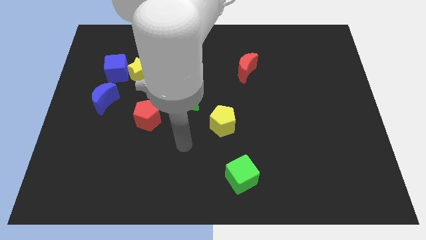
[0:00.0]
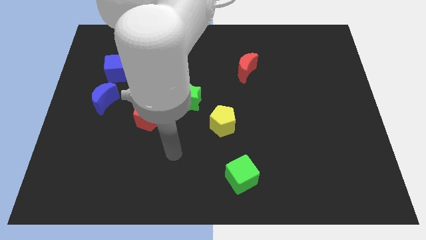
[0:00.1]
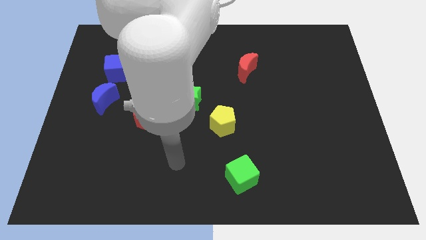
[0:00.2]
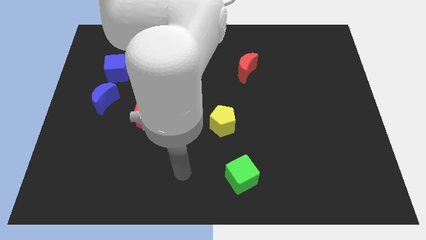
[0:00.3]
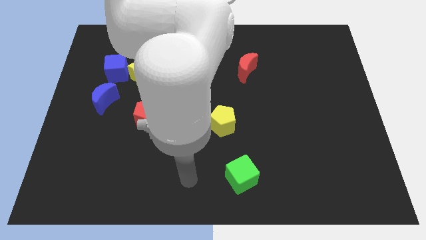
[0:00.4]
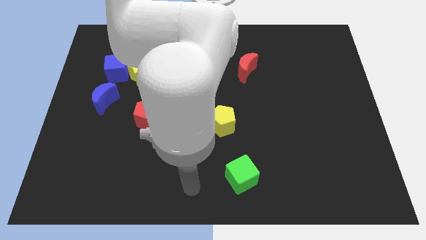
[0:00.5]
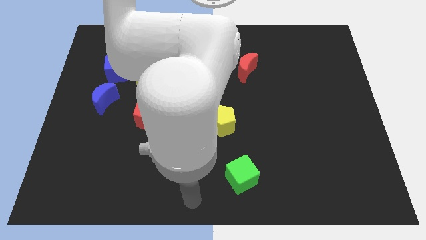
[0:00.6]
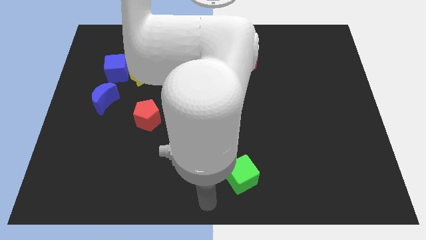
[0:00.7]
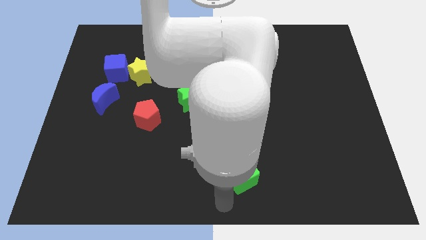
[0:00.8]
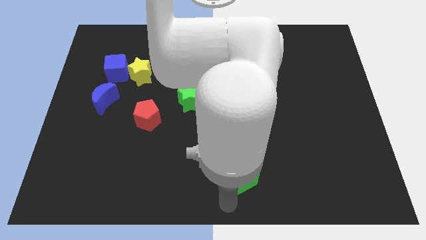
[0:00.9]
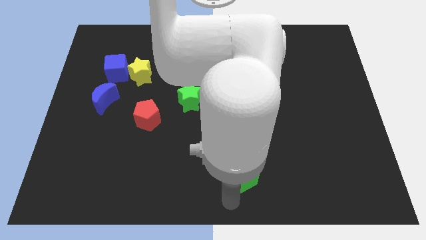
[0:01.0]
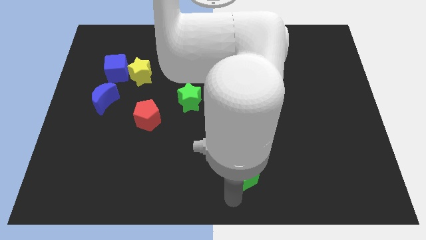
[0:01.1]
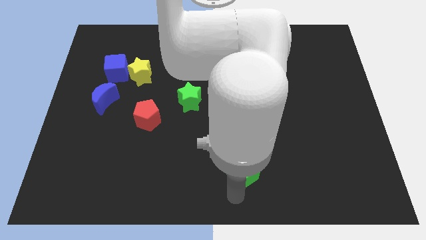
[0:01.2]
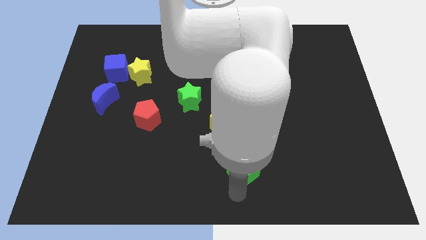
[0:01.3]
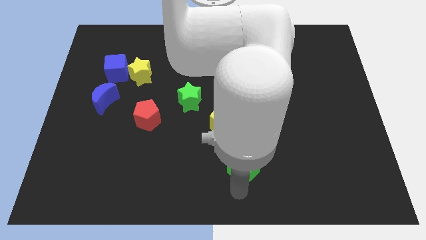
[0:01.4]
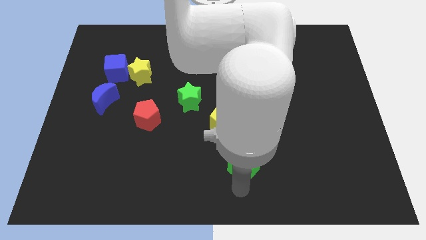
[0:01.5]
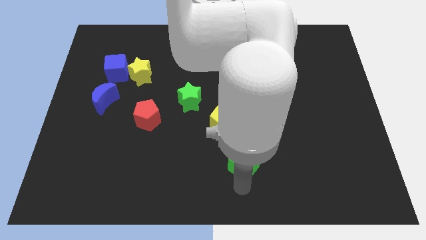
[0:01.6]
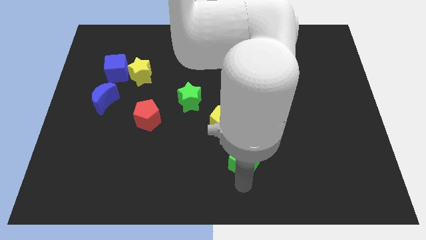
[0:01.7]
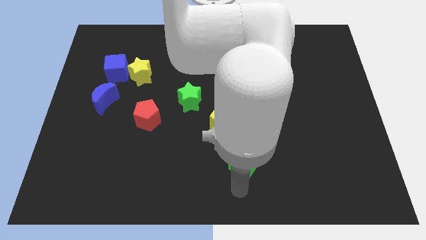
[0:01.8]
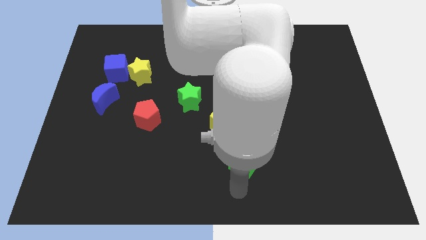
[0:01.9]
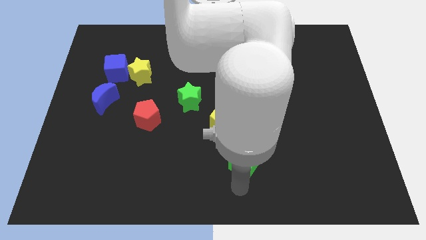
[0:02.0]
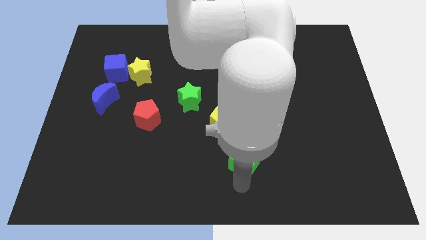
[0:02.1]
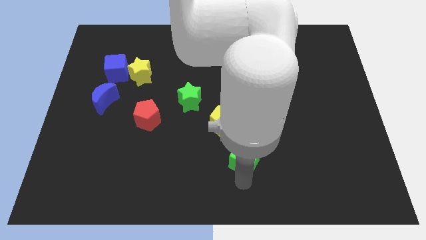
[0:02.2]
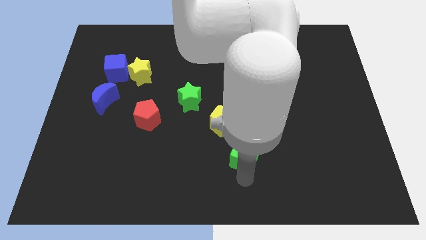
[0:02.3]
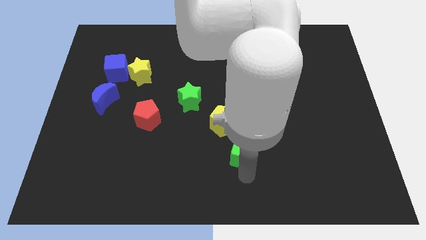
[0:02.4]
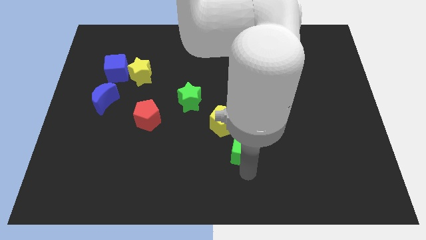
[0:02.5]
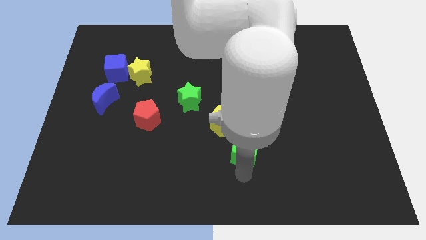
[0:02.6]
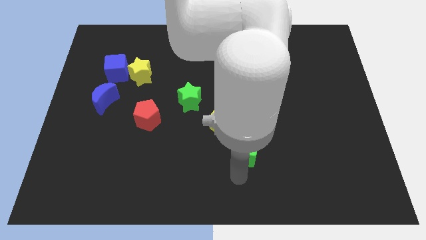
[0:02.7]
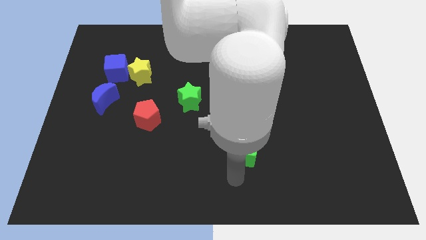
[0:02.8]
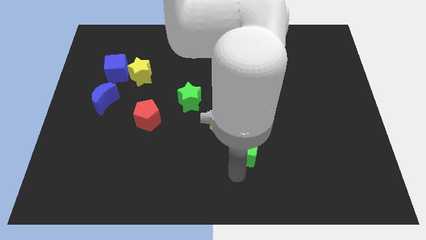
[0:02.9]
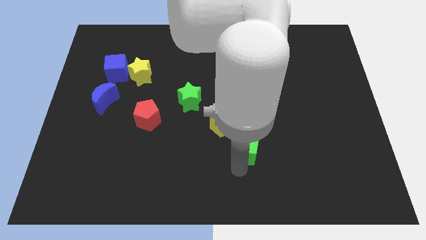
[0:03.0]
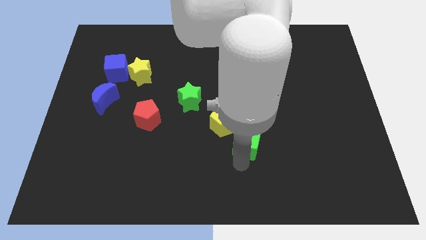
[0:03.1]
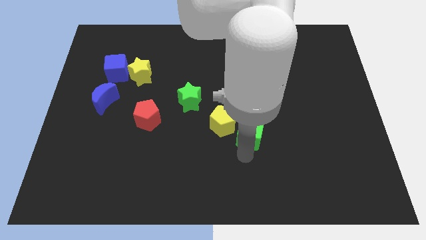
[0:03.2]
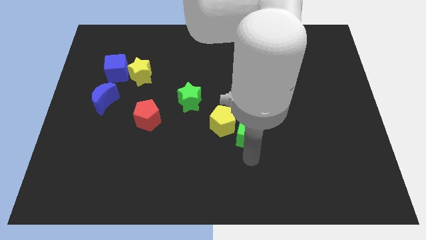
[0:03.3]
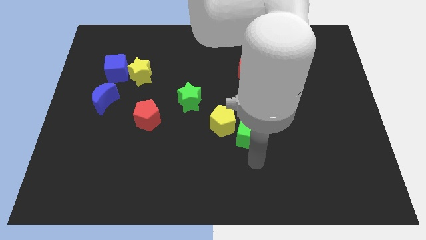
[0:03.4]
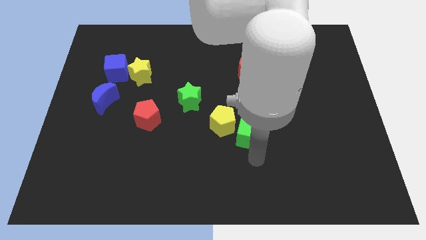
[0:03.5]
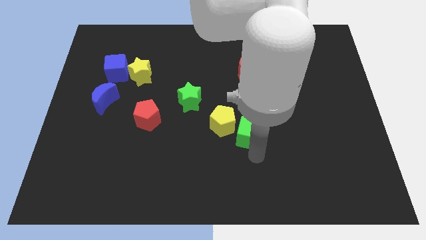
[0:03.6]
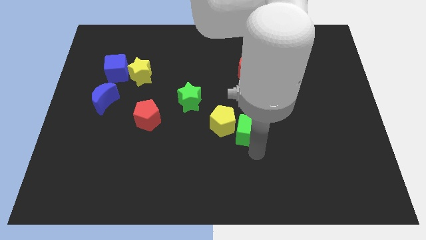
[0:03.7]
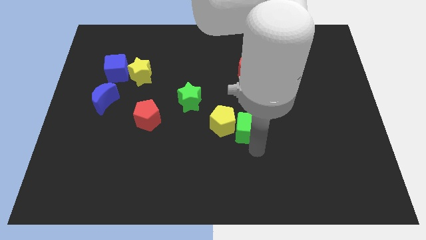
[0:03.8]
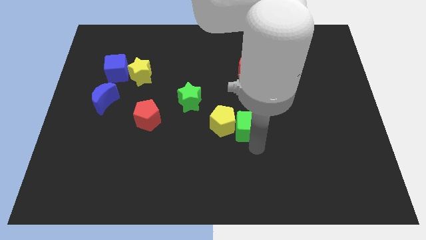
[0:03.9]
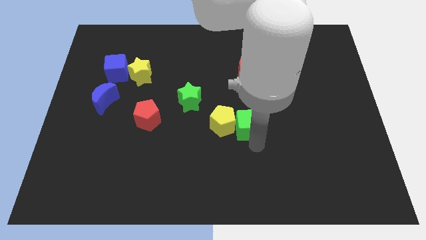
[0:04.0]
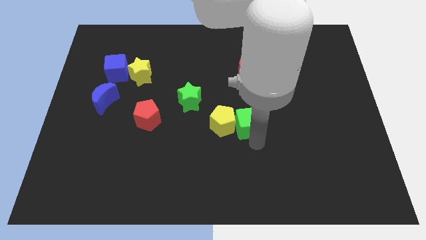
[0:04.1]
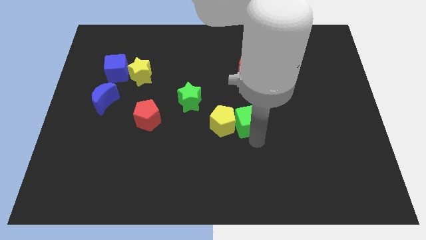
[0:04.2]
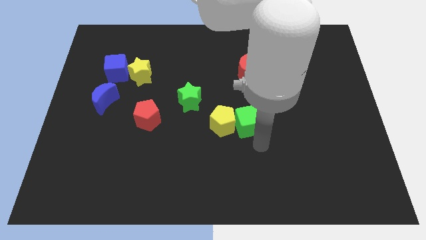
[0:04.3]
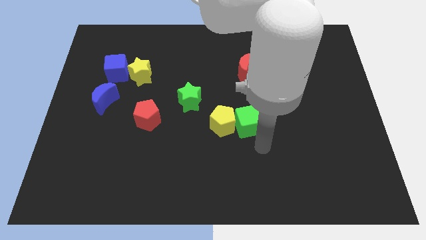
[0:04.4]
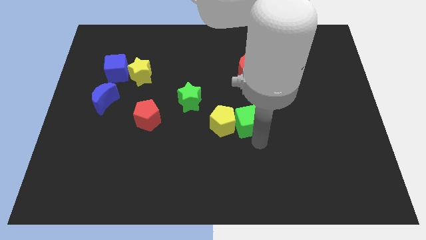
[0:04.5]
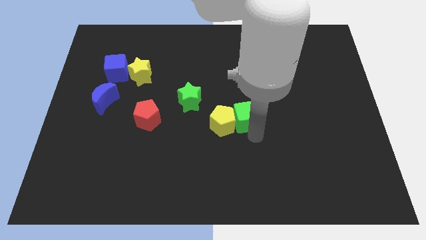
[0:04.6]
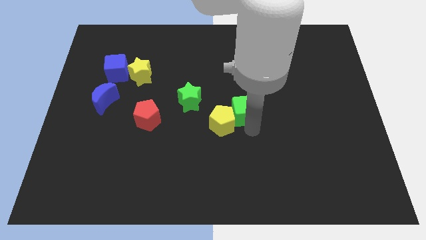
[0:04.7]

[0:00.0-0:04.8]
move the green cube just right of the green star

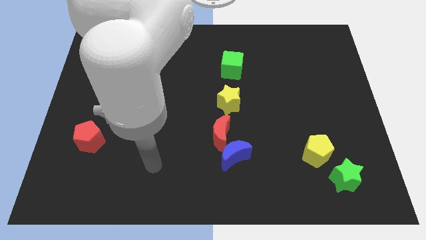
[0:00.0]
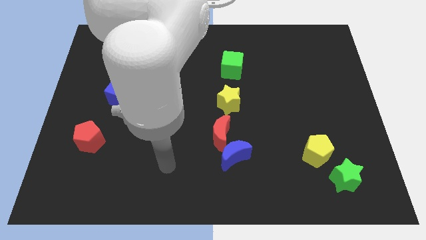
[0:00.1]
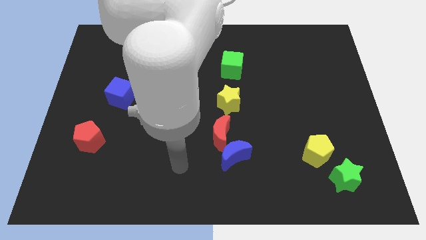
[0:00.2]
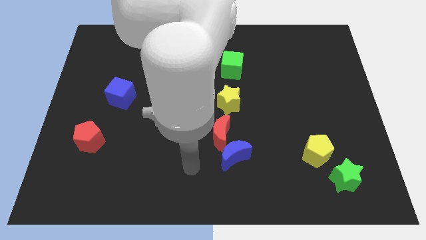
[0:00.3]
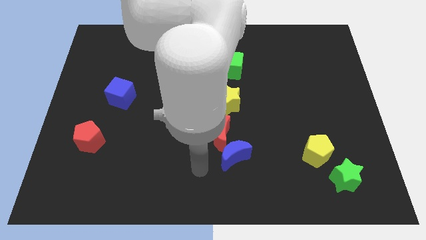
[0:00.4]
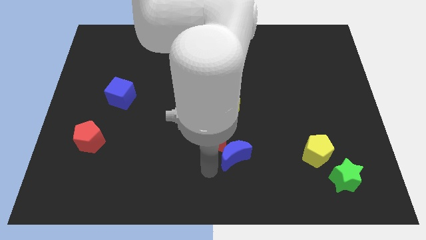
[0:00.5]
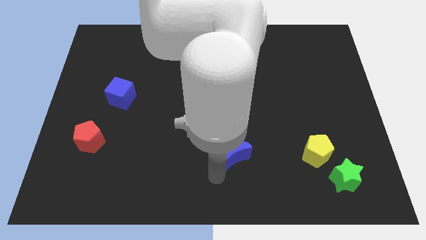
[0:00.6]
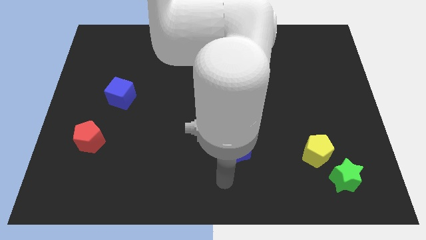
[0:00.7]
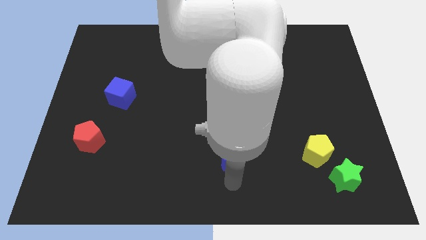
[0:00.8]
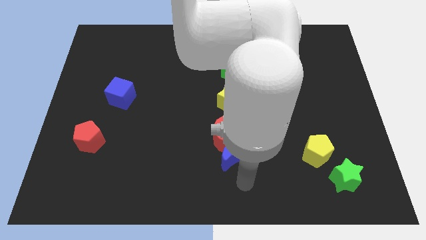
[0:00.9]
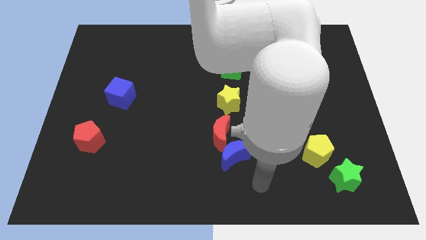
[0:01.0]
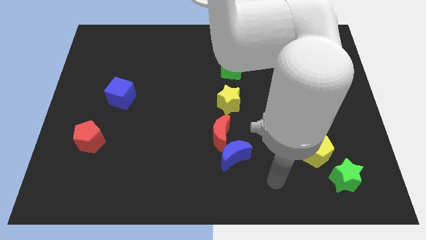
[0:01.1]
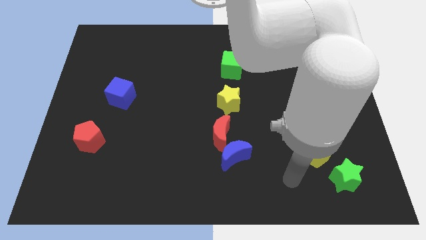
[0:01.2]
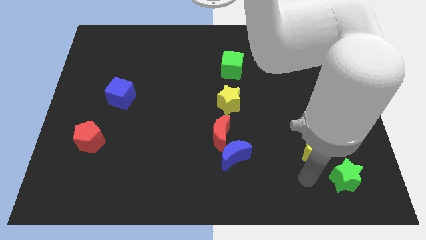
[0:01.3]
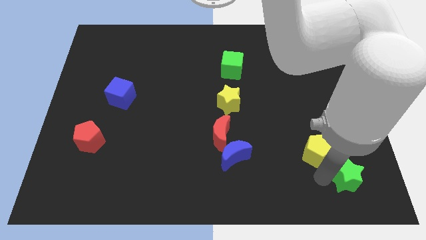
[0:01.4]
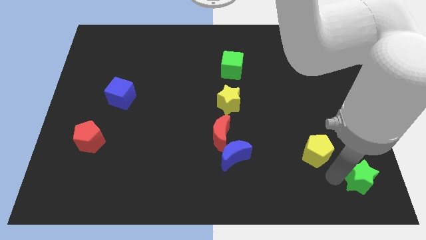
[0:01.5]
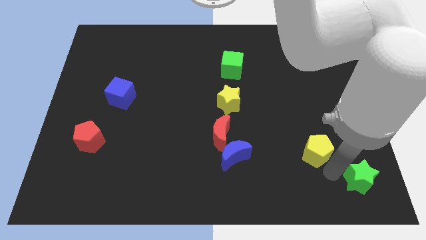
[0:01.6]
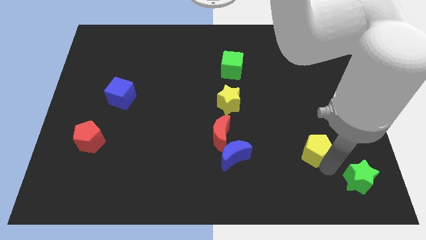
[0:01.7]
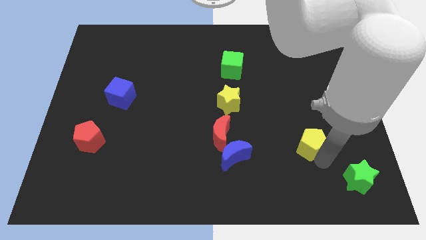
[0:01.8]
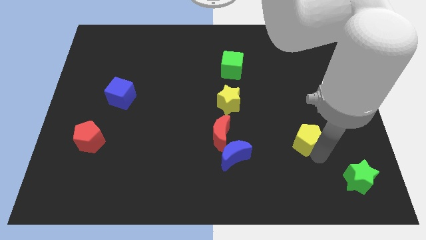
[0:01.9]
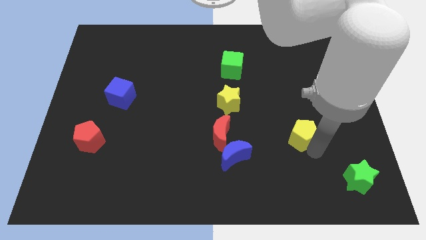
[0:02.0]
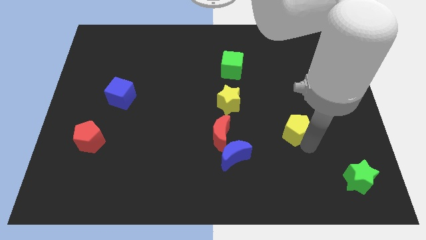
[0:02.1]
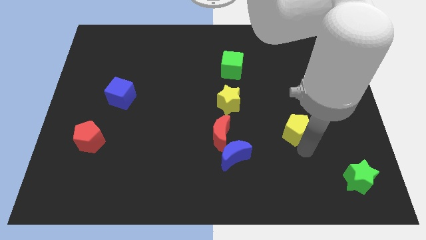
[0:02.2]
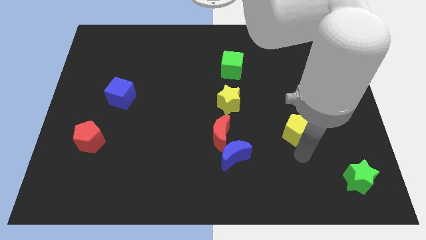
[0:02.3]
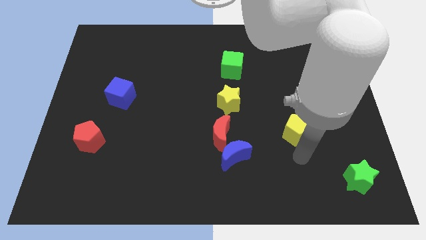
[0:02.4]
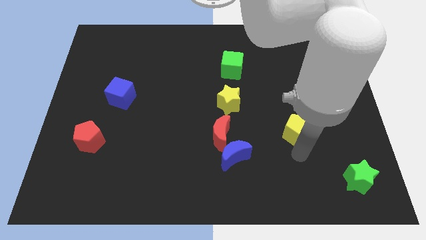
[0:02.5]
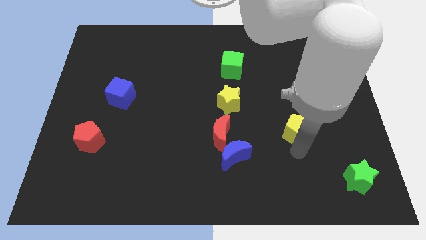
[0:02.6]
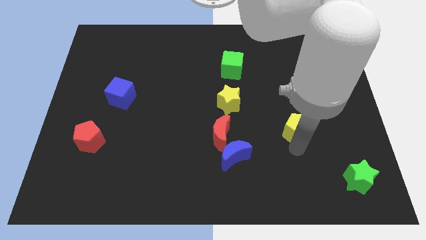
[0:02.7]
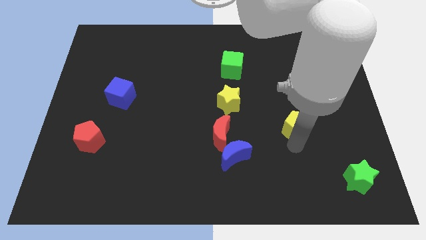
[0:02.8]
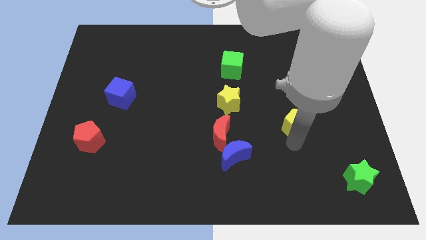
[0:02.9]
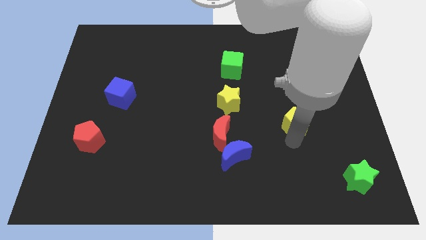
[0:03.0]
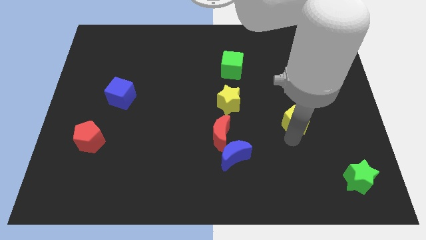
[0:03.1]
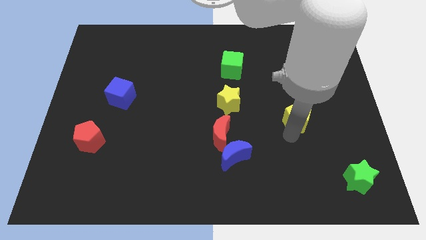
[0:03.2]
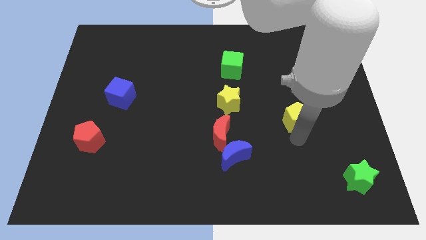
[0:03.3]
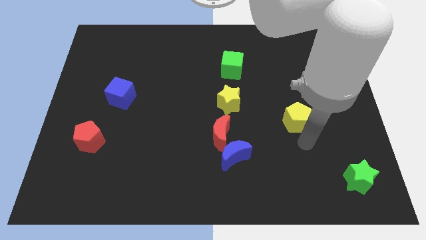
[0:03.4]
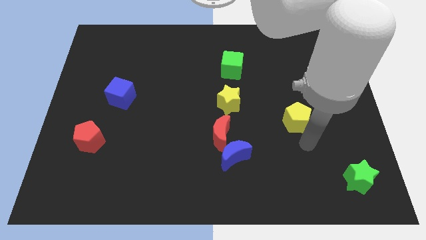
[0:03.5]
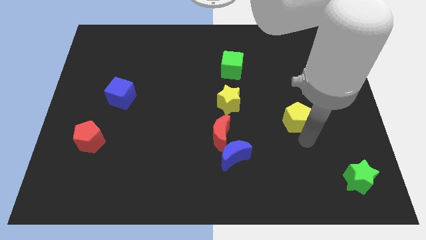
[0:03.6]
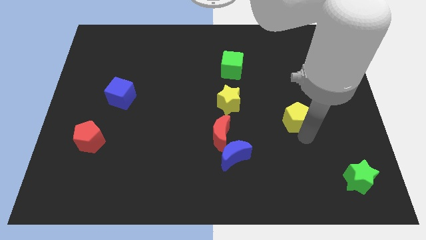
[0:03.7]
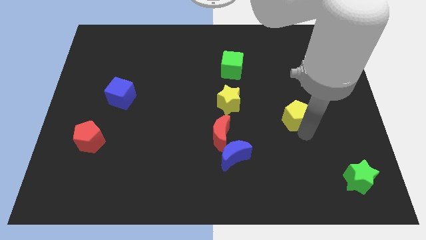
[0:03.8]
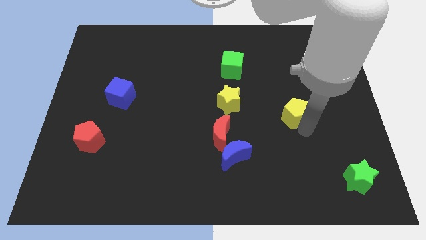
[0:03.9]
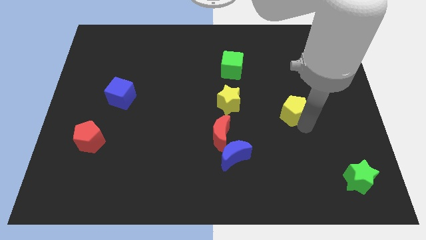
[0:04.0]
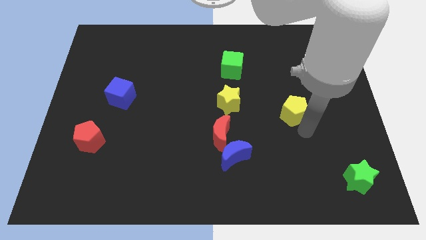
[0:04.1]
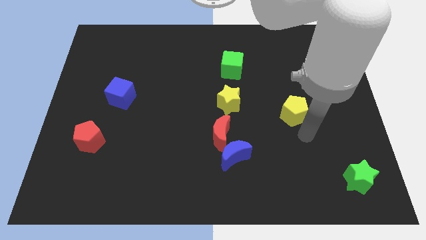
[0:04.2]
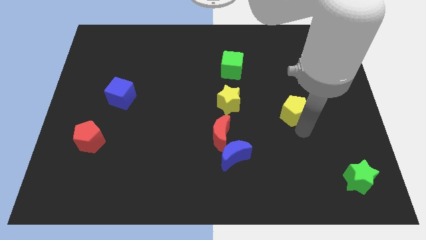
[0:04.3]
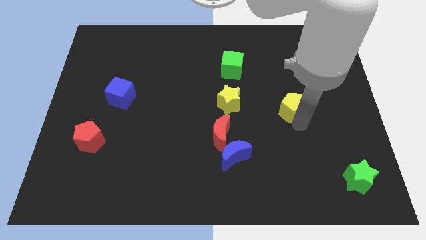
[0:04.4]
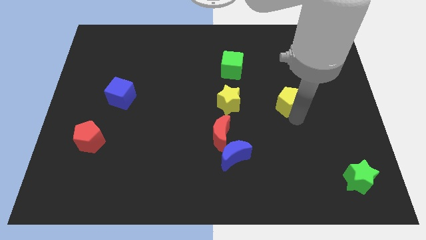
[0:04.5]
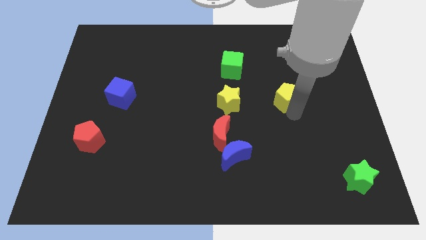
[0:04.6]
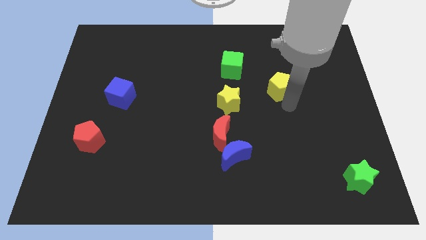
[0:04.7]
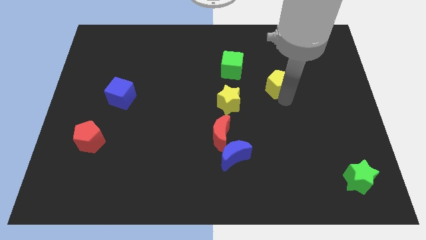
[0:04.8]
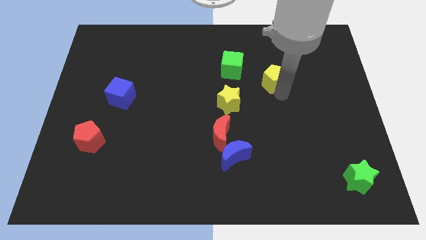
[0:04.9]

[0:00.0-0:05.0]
slide the yellow pentagon just right of the green cube
